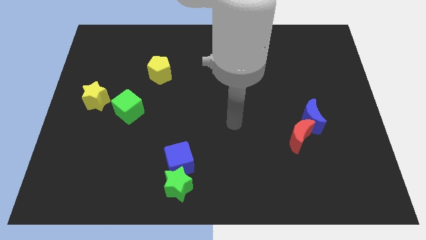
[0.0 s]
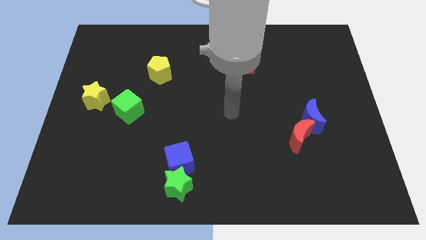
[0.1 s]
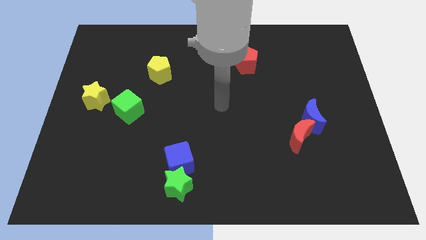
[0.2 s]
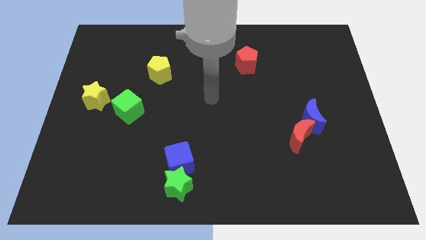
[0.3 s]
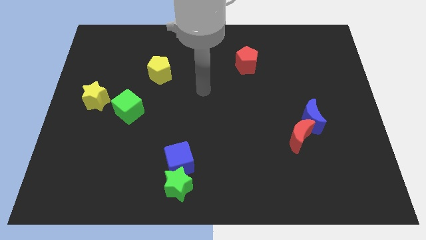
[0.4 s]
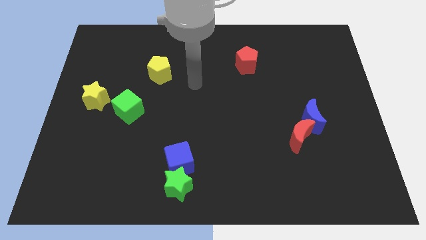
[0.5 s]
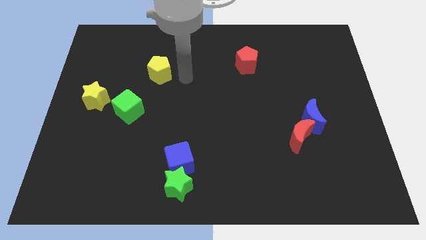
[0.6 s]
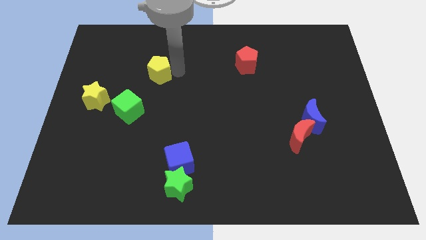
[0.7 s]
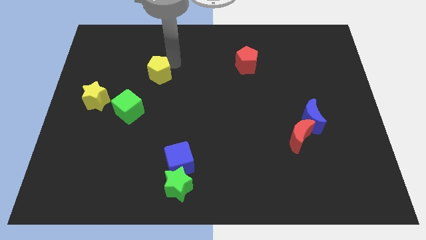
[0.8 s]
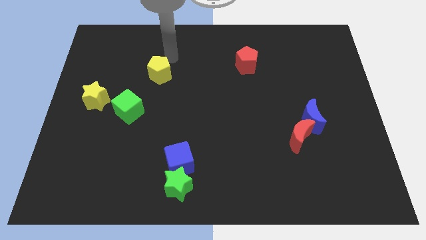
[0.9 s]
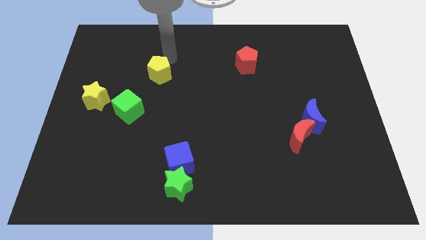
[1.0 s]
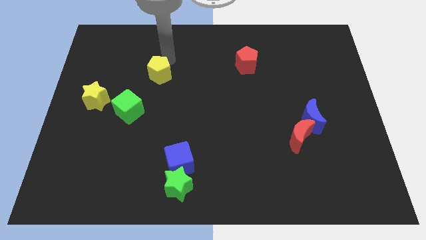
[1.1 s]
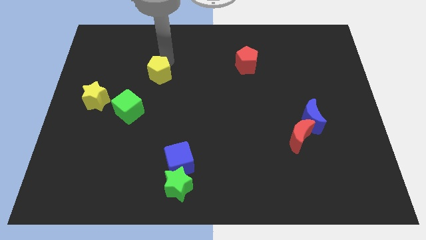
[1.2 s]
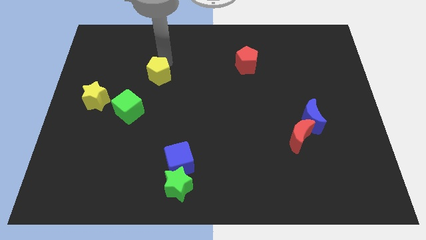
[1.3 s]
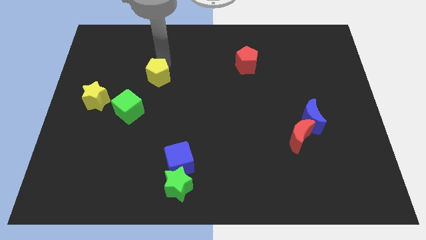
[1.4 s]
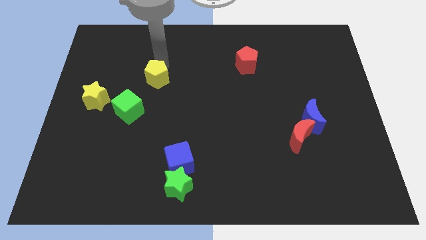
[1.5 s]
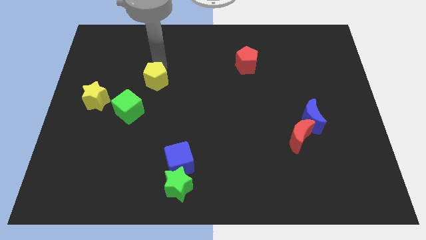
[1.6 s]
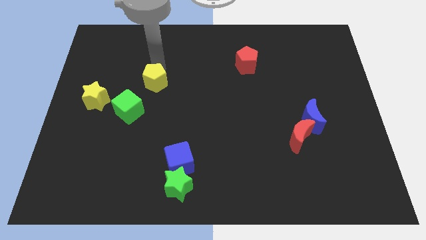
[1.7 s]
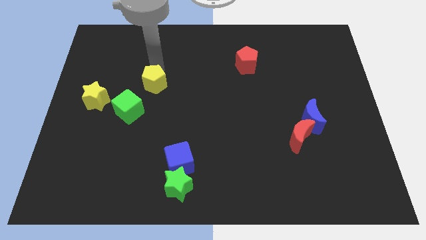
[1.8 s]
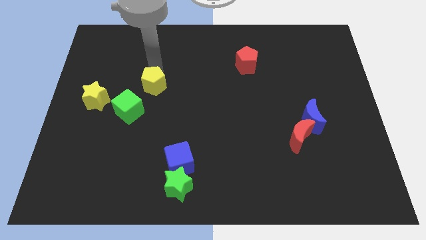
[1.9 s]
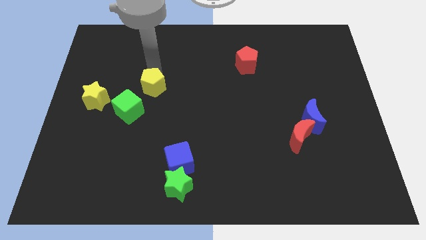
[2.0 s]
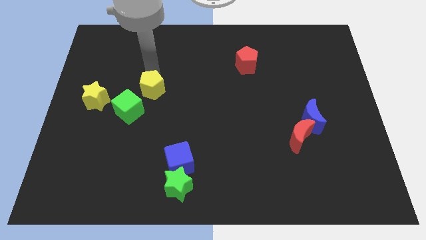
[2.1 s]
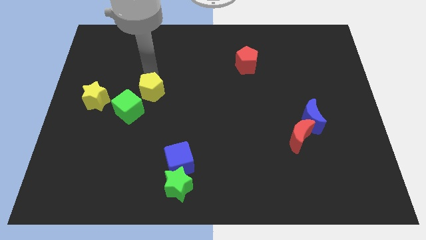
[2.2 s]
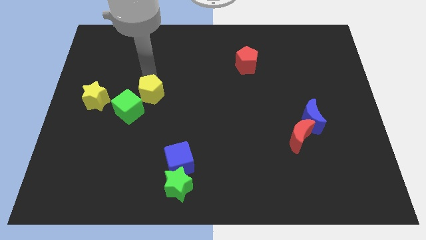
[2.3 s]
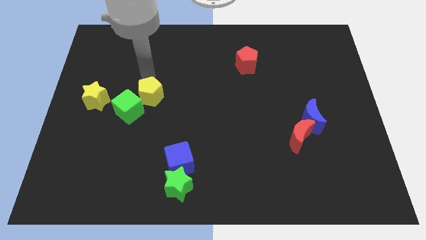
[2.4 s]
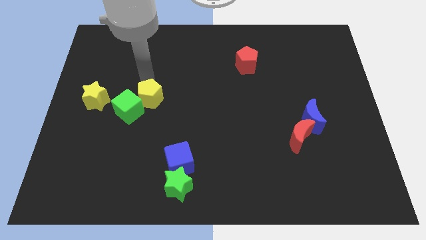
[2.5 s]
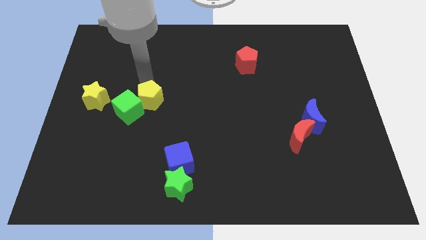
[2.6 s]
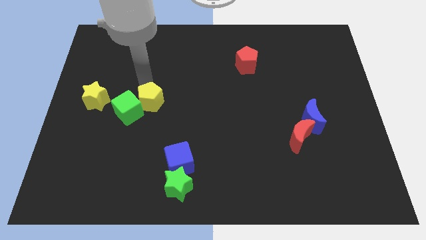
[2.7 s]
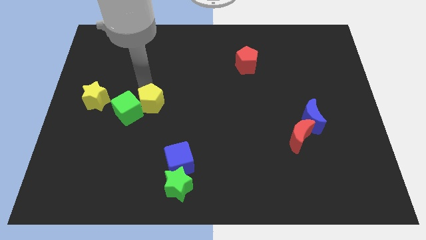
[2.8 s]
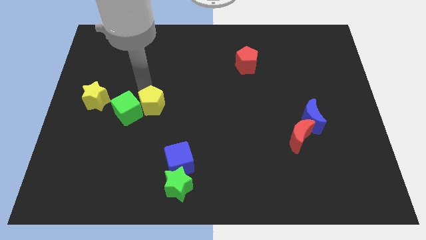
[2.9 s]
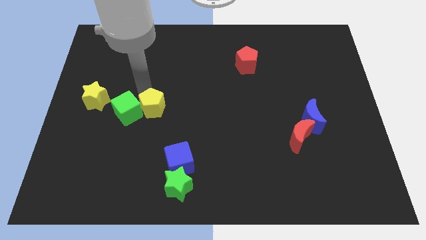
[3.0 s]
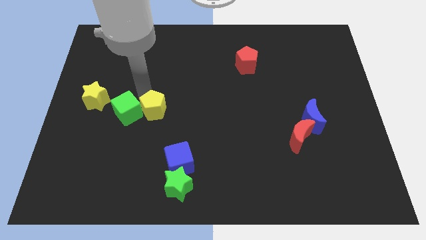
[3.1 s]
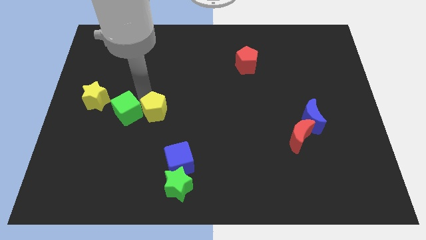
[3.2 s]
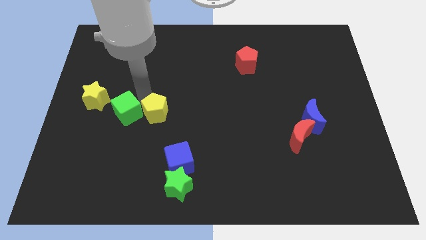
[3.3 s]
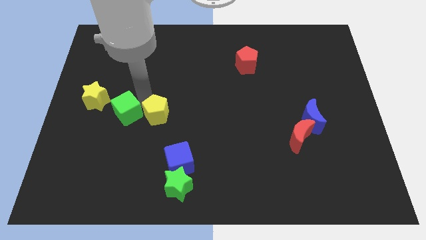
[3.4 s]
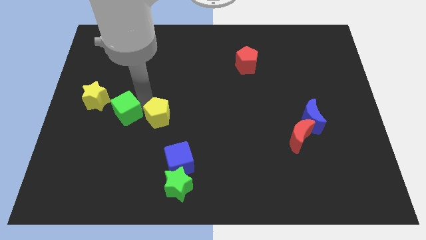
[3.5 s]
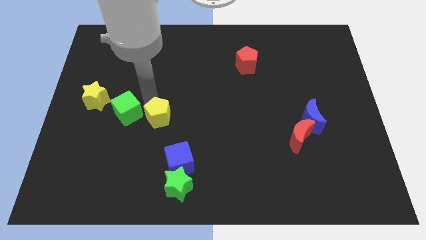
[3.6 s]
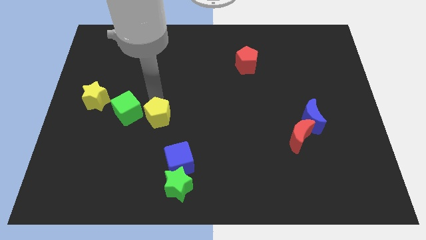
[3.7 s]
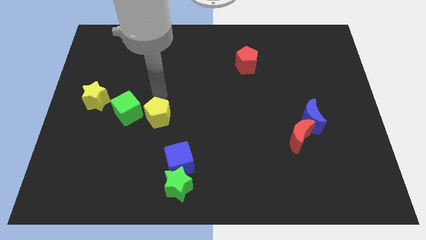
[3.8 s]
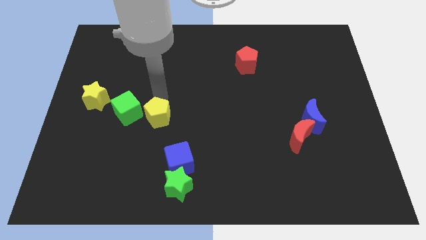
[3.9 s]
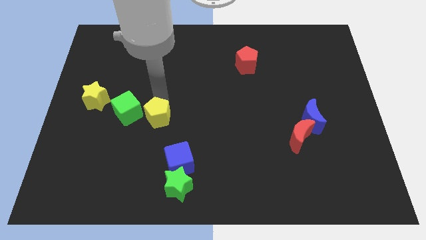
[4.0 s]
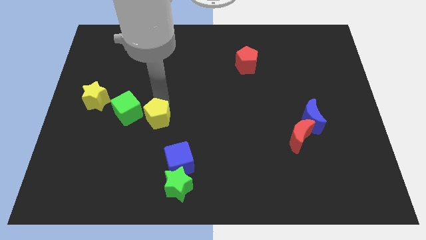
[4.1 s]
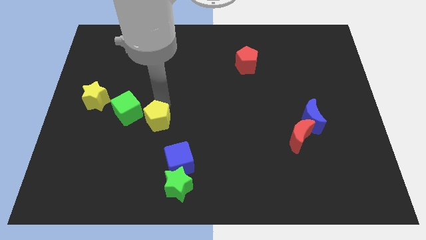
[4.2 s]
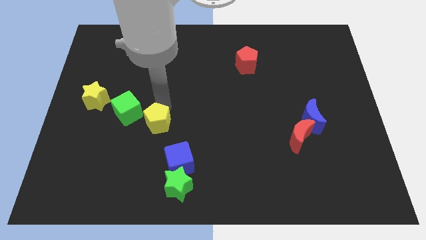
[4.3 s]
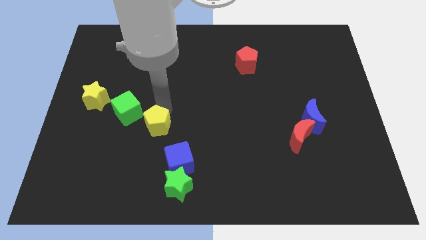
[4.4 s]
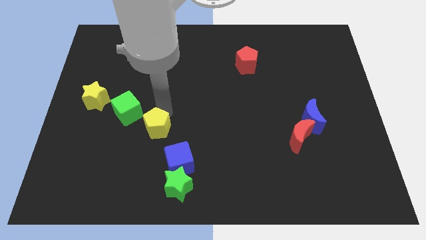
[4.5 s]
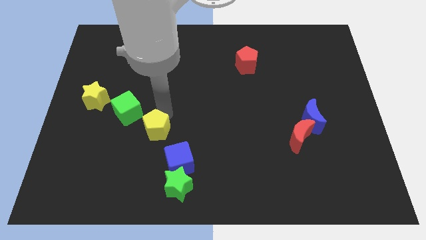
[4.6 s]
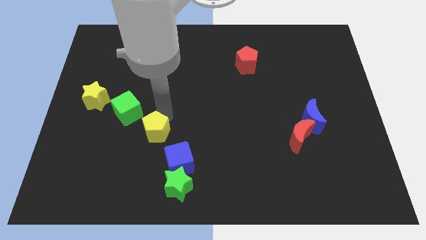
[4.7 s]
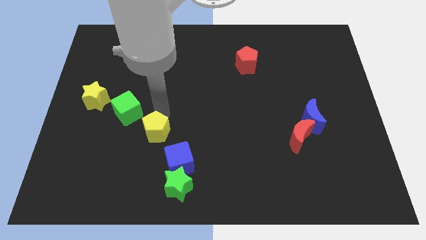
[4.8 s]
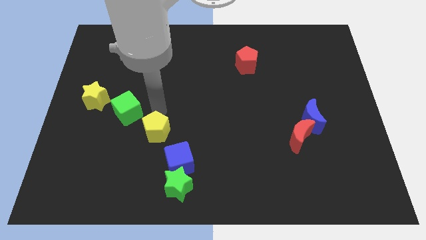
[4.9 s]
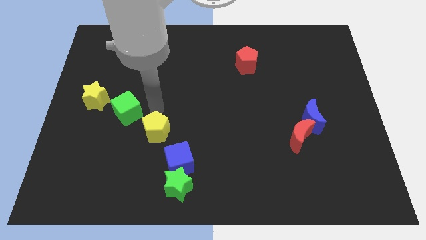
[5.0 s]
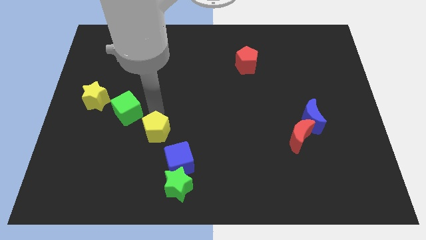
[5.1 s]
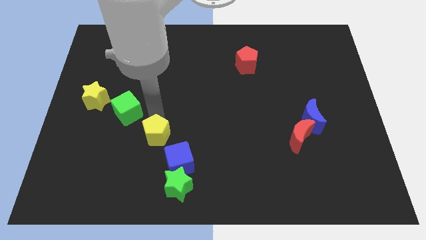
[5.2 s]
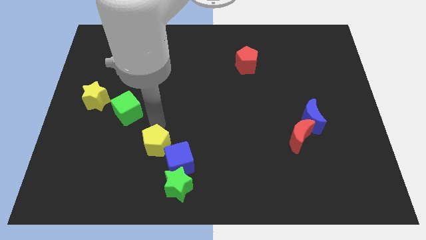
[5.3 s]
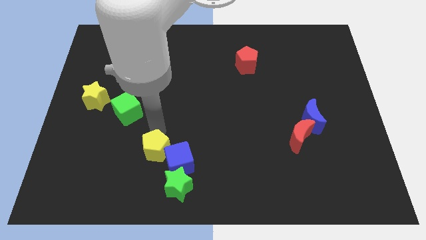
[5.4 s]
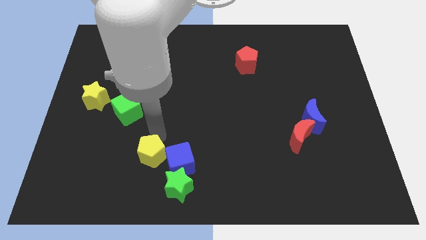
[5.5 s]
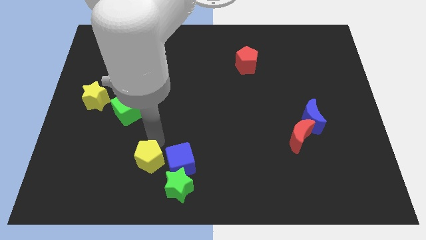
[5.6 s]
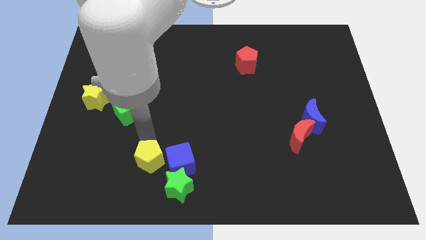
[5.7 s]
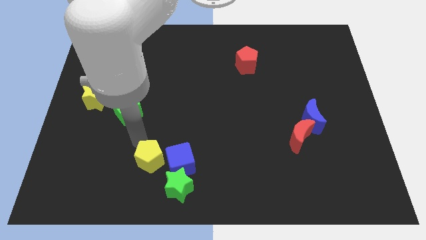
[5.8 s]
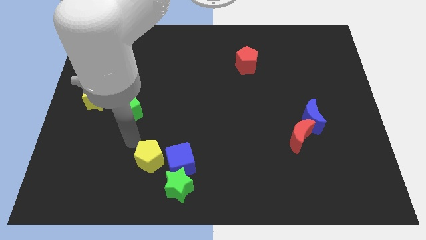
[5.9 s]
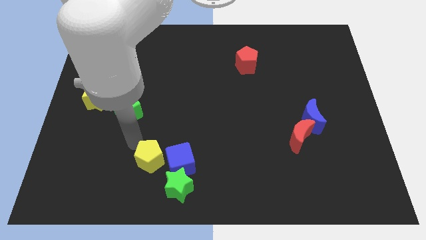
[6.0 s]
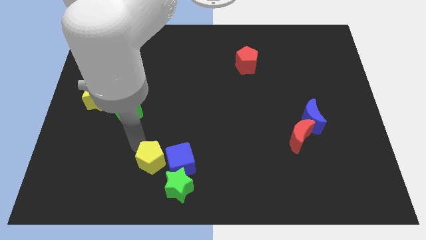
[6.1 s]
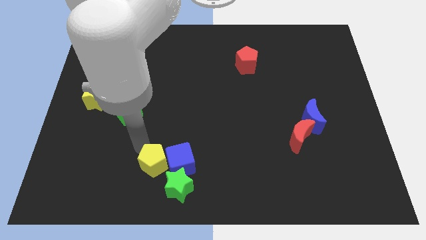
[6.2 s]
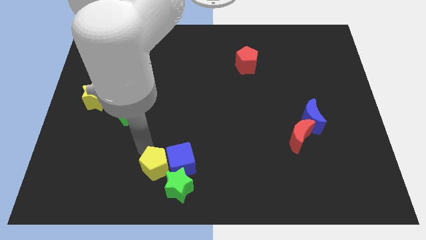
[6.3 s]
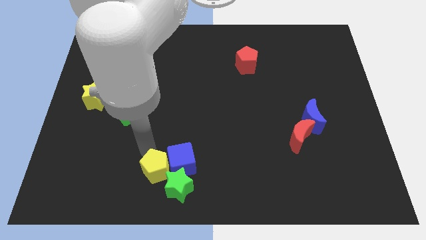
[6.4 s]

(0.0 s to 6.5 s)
put the yellow pentagon next to the green star

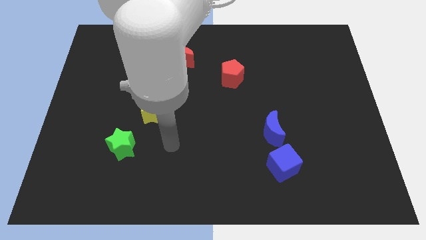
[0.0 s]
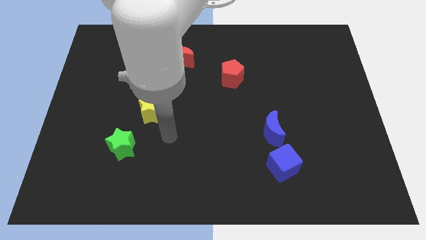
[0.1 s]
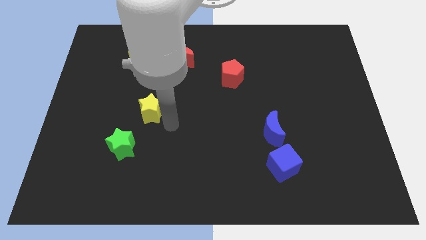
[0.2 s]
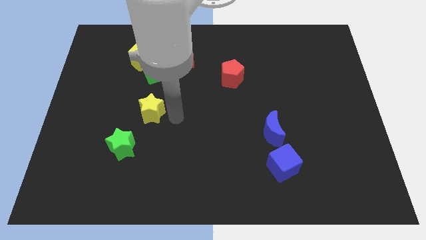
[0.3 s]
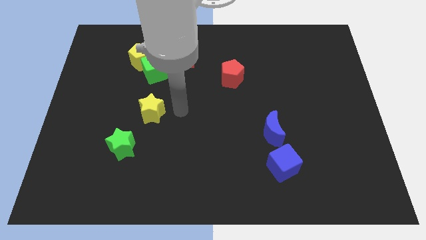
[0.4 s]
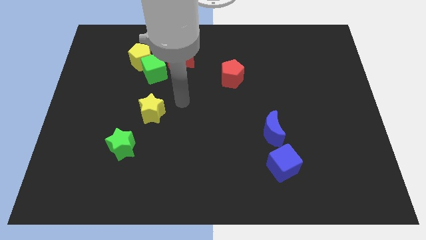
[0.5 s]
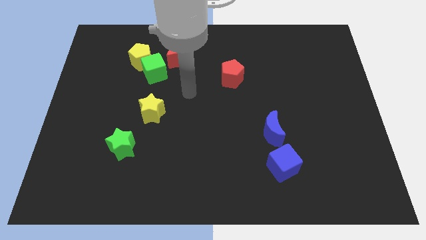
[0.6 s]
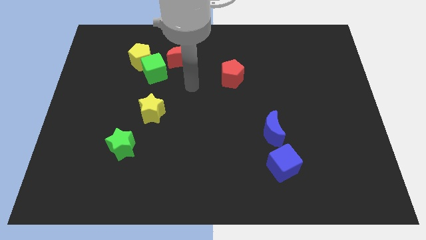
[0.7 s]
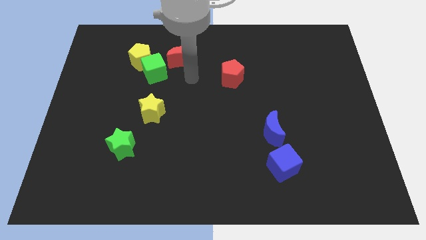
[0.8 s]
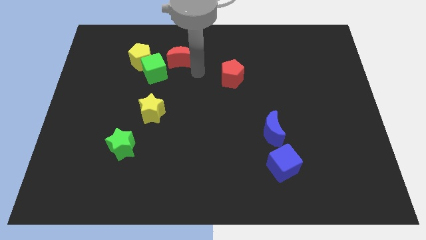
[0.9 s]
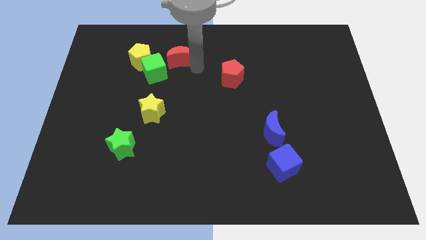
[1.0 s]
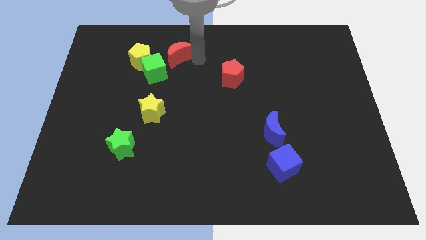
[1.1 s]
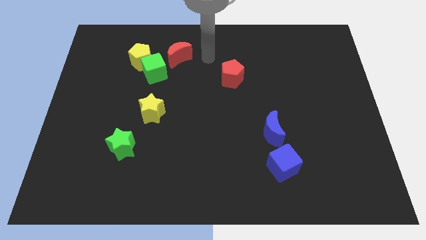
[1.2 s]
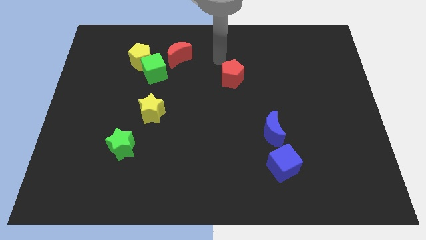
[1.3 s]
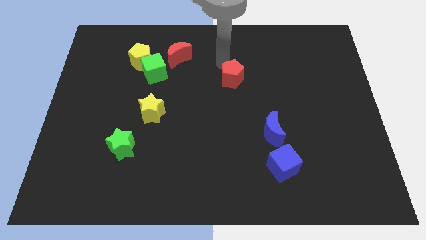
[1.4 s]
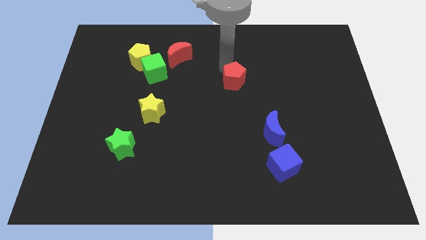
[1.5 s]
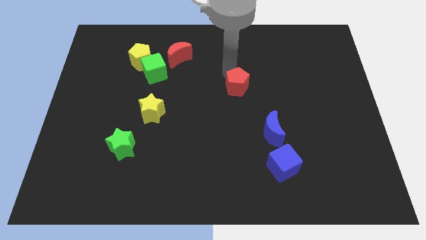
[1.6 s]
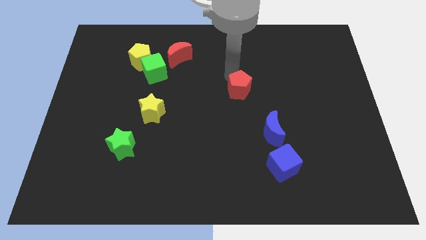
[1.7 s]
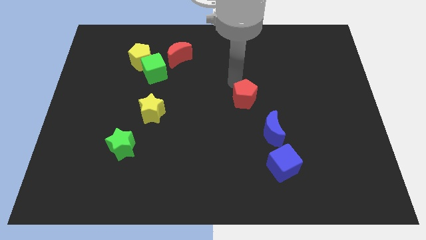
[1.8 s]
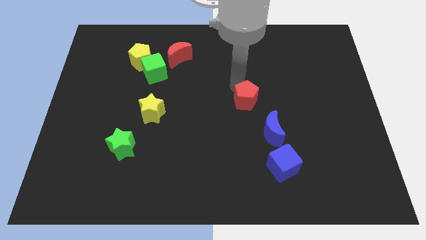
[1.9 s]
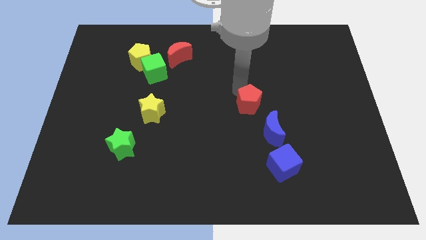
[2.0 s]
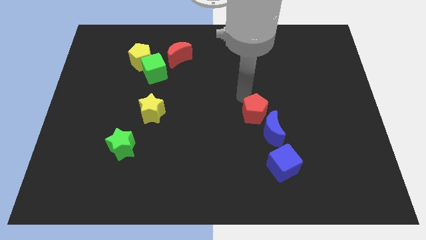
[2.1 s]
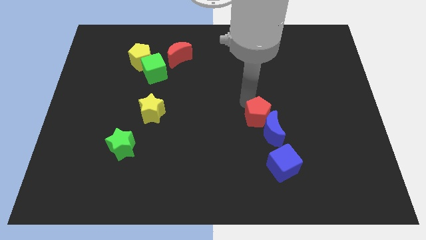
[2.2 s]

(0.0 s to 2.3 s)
slide the red pentagon to the blue moon
